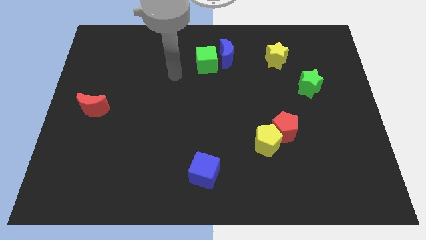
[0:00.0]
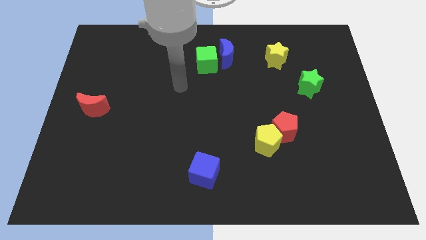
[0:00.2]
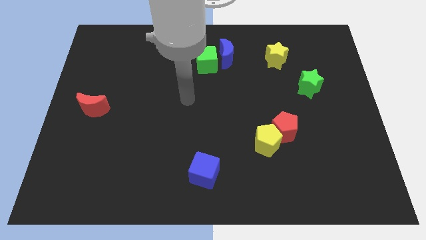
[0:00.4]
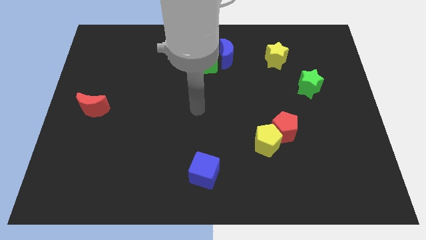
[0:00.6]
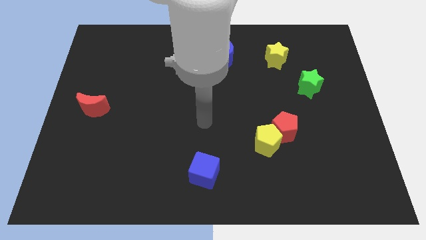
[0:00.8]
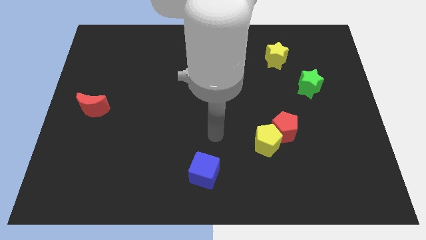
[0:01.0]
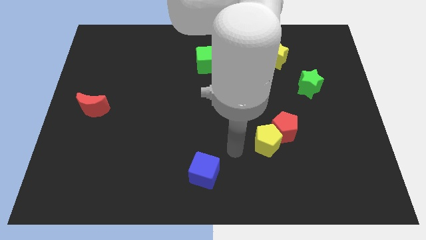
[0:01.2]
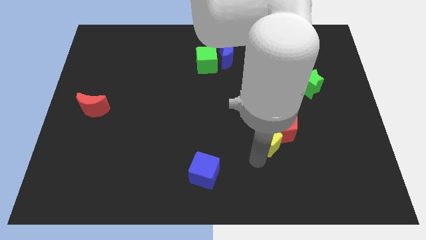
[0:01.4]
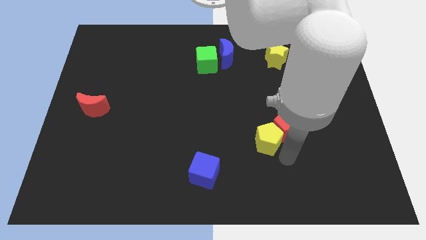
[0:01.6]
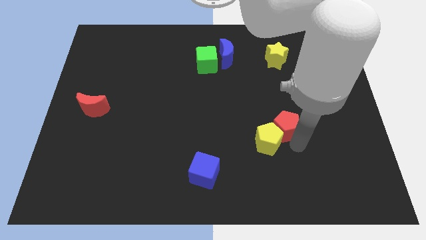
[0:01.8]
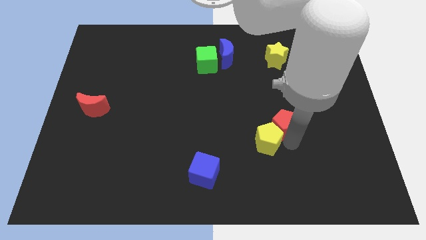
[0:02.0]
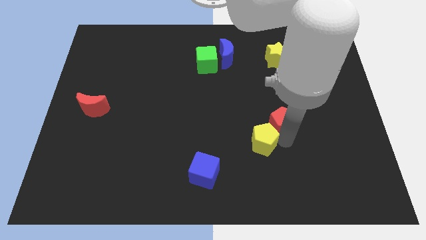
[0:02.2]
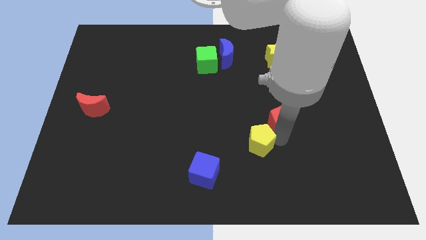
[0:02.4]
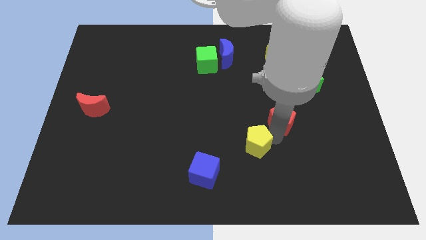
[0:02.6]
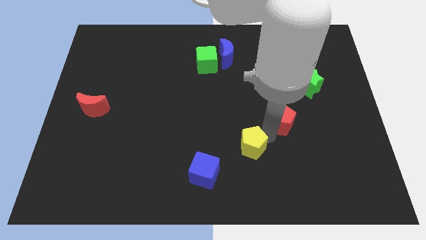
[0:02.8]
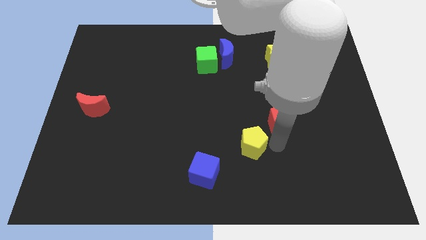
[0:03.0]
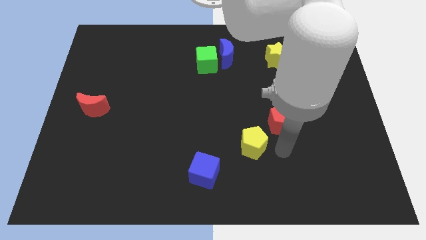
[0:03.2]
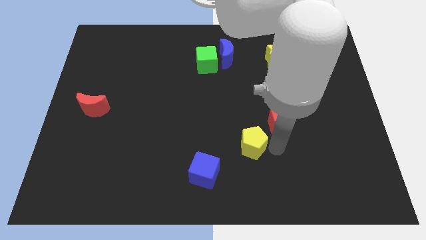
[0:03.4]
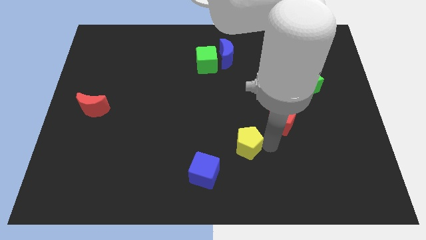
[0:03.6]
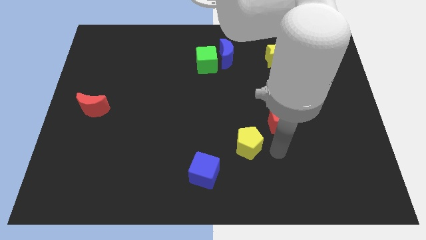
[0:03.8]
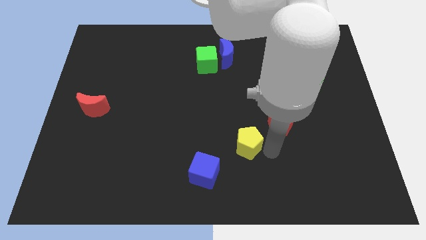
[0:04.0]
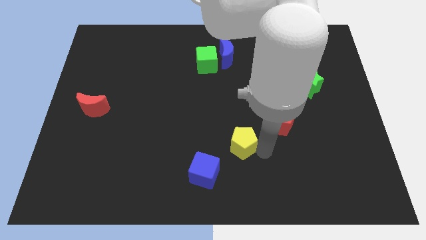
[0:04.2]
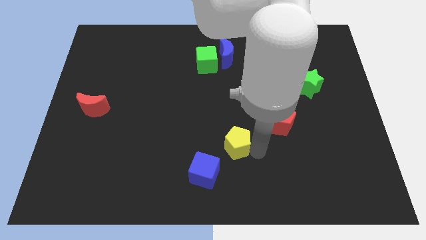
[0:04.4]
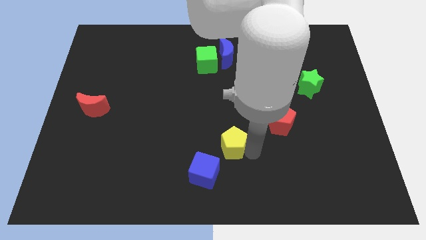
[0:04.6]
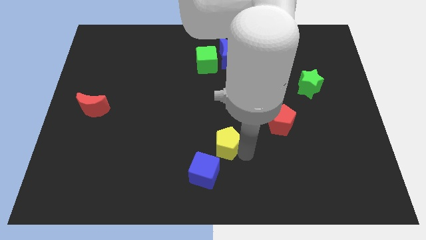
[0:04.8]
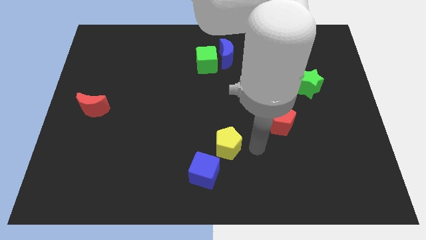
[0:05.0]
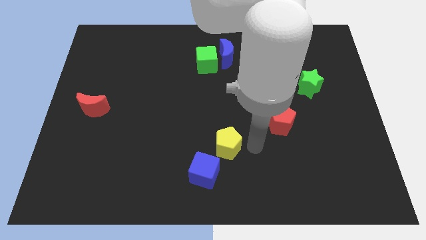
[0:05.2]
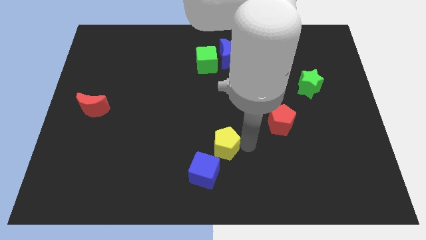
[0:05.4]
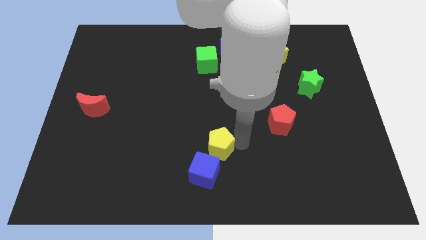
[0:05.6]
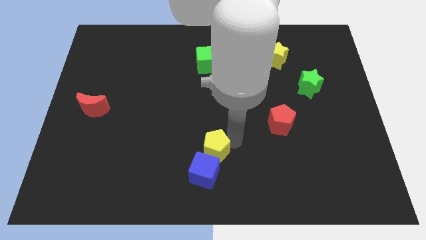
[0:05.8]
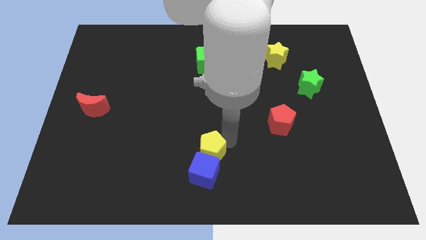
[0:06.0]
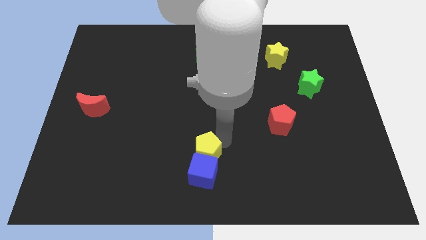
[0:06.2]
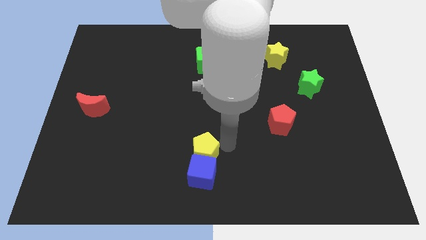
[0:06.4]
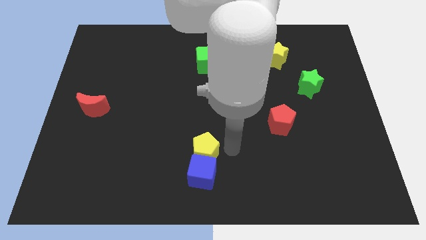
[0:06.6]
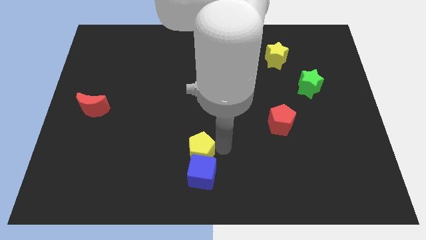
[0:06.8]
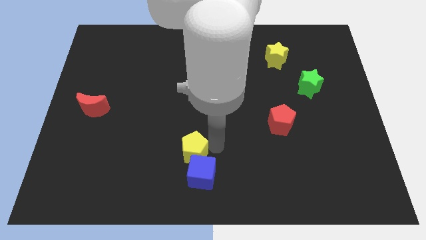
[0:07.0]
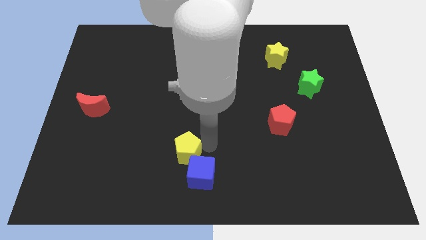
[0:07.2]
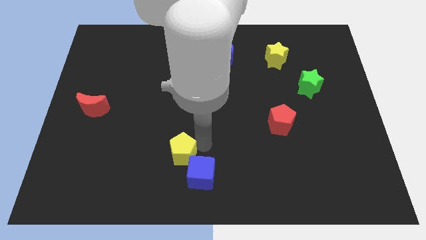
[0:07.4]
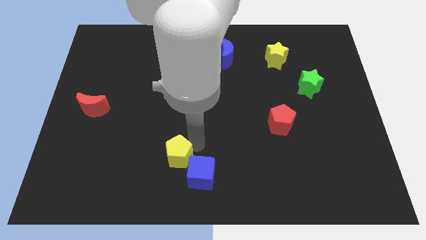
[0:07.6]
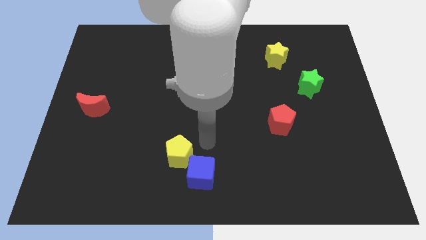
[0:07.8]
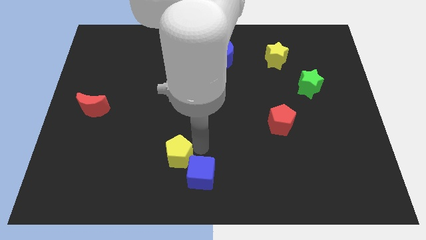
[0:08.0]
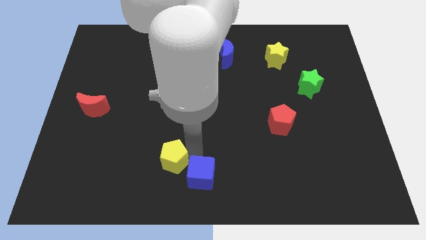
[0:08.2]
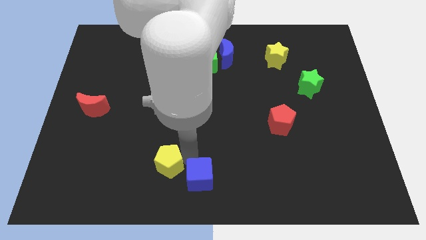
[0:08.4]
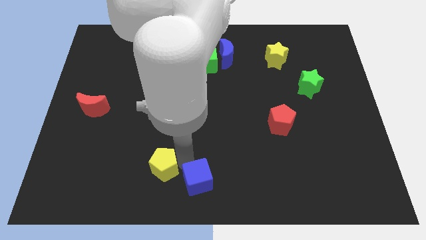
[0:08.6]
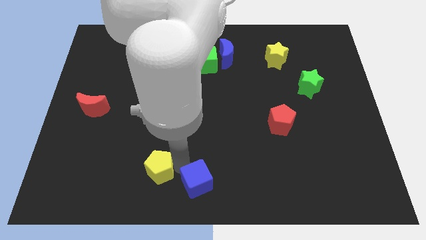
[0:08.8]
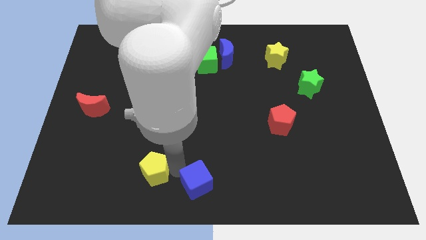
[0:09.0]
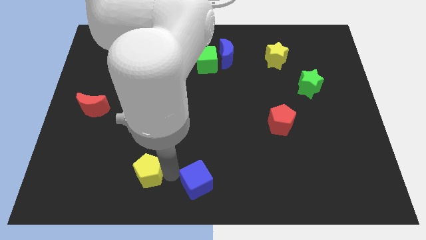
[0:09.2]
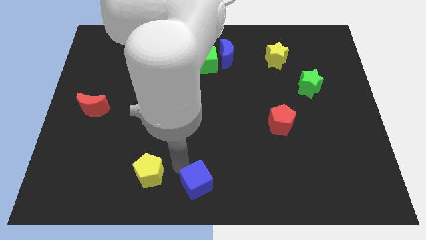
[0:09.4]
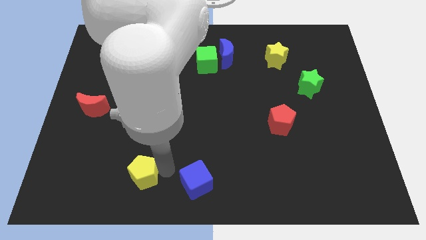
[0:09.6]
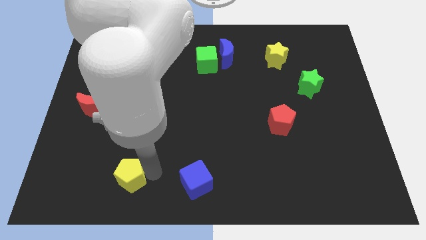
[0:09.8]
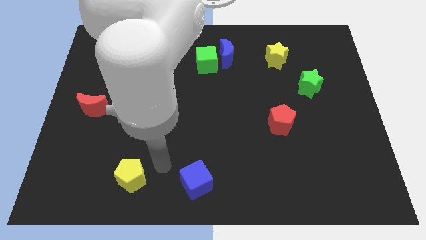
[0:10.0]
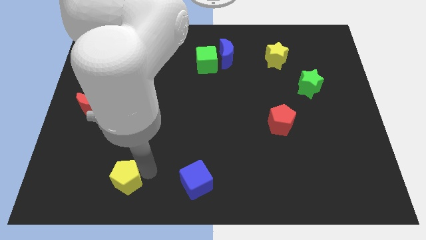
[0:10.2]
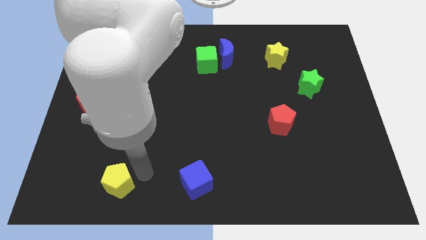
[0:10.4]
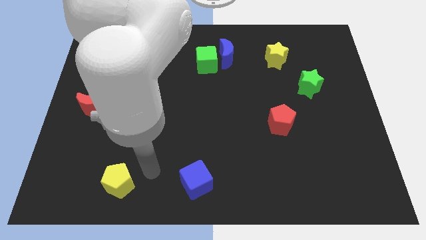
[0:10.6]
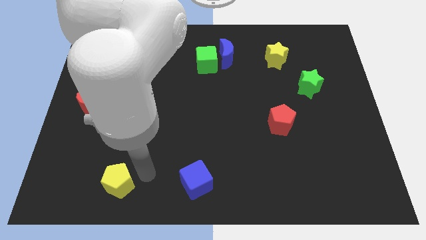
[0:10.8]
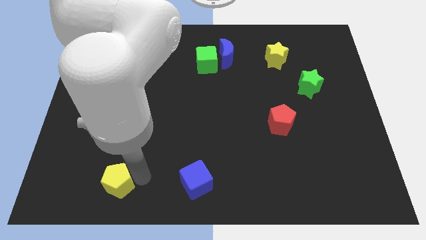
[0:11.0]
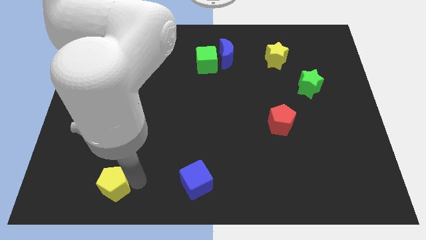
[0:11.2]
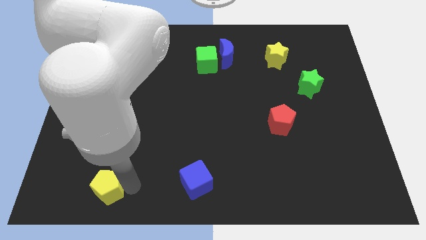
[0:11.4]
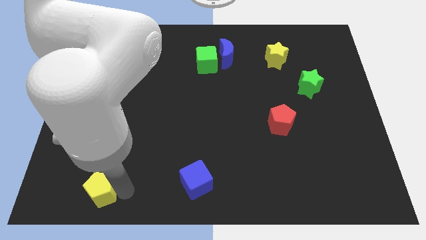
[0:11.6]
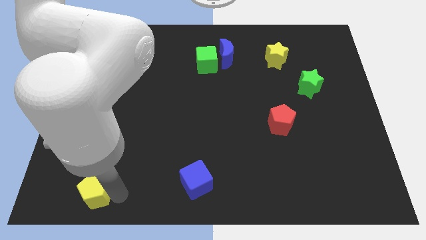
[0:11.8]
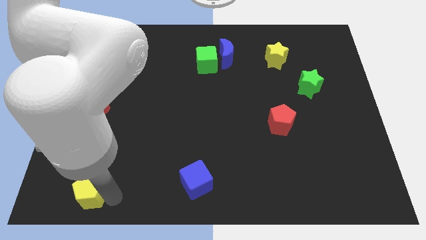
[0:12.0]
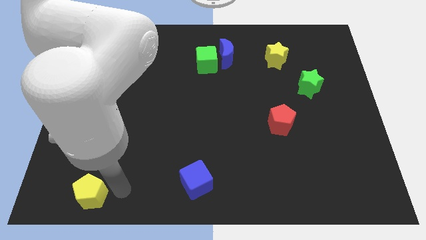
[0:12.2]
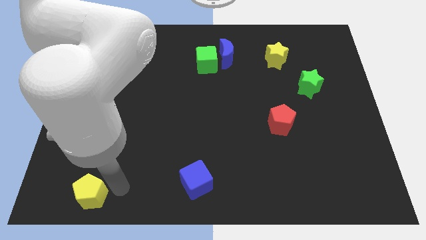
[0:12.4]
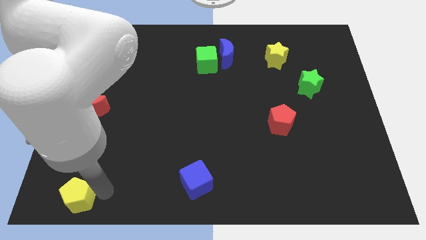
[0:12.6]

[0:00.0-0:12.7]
slide the yellow pentagon to the bottom left corner
